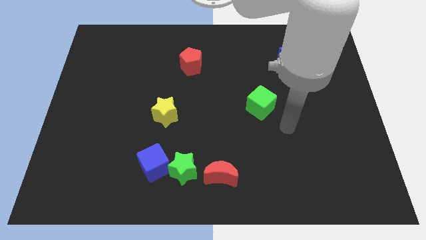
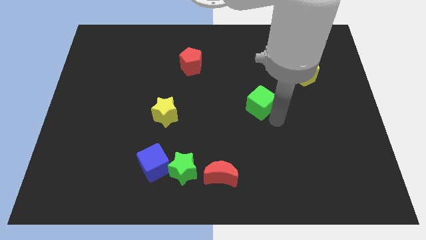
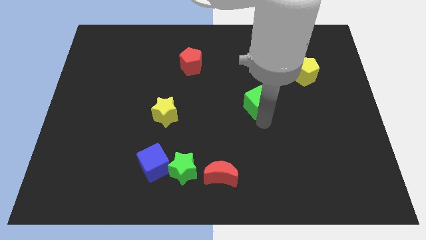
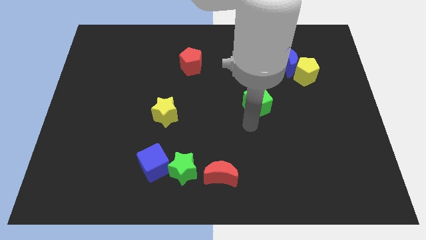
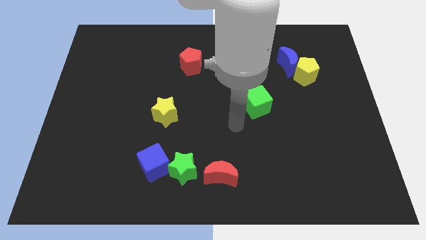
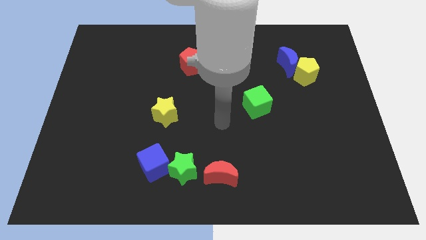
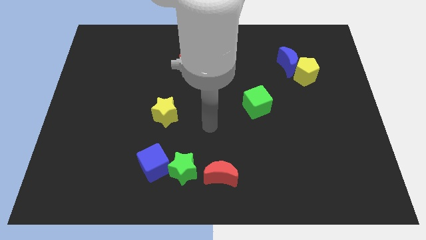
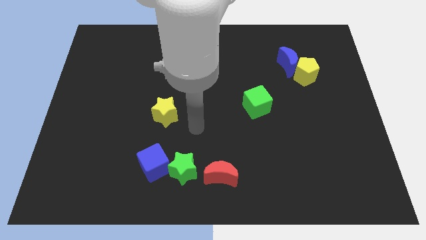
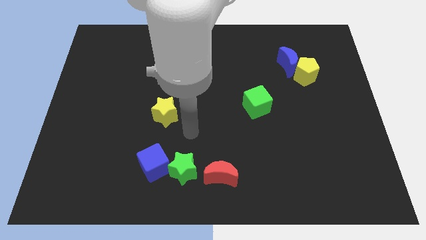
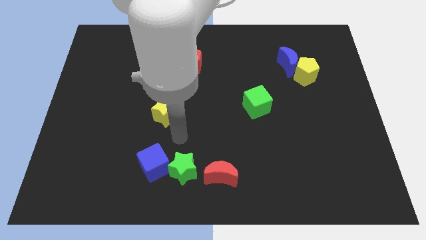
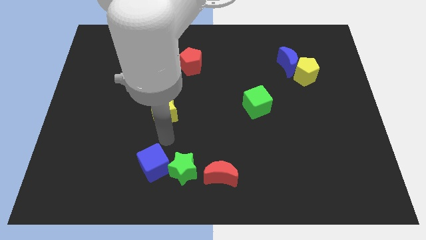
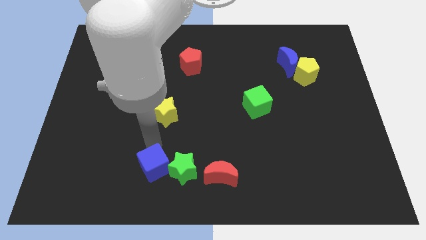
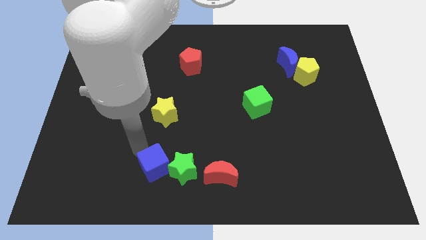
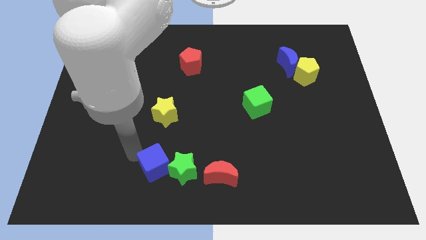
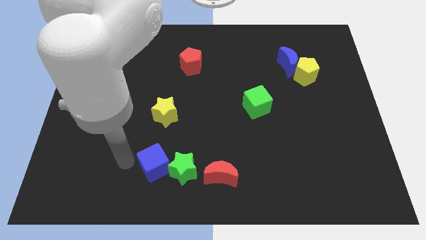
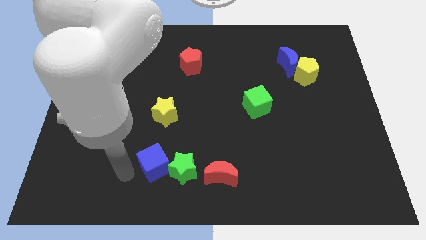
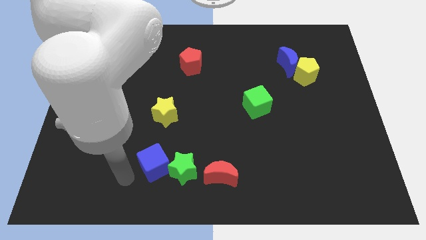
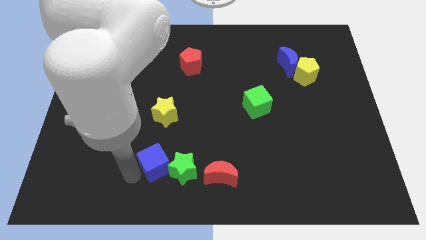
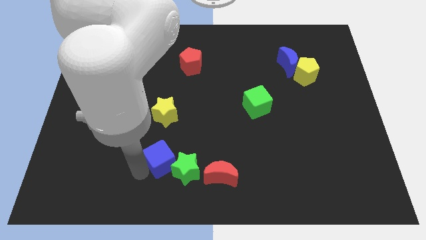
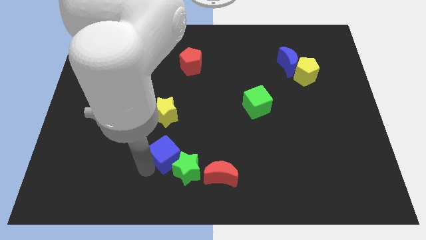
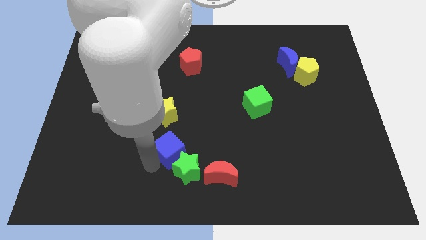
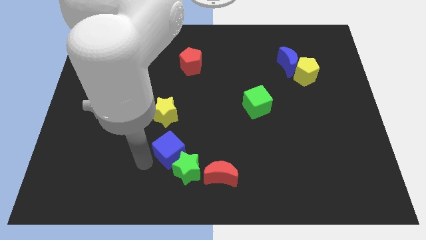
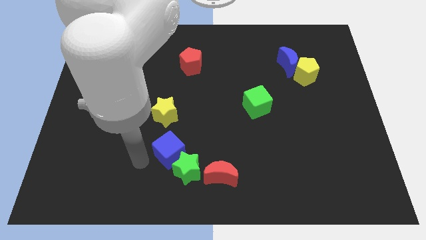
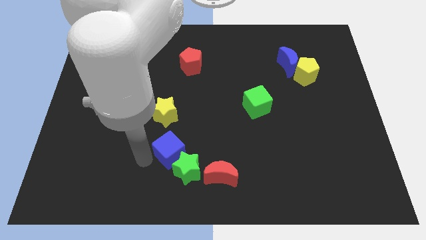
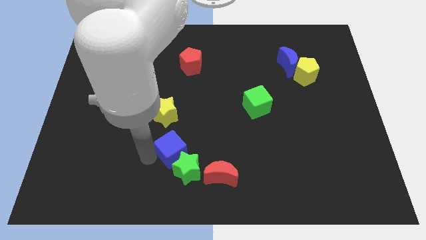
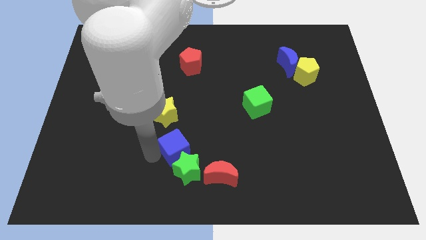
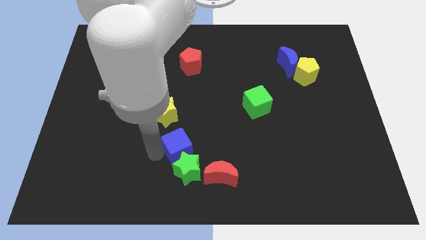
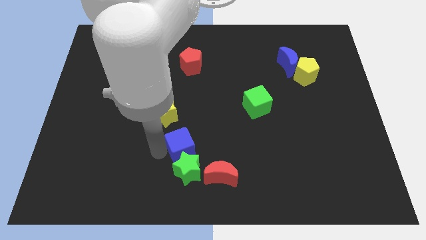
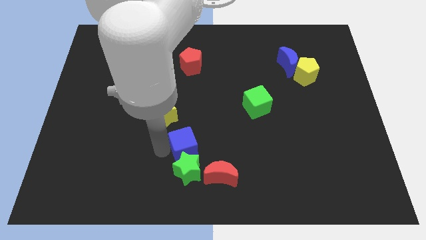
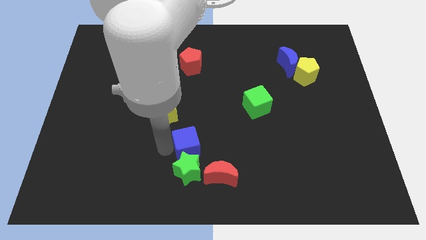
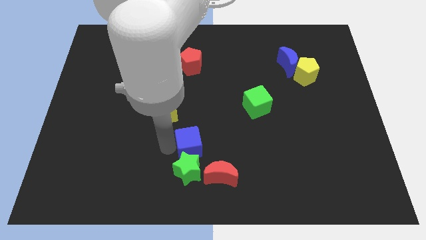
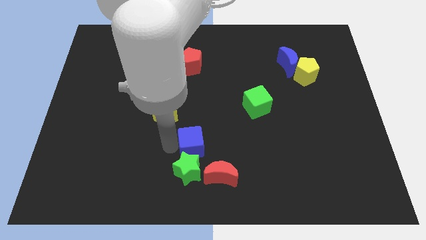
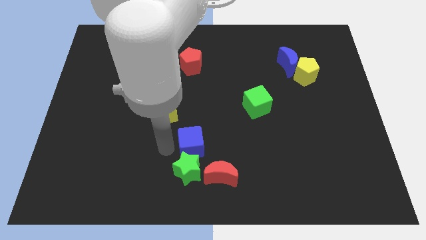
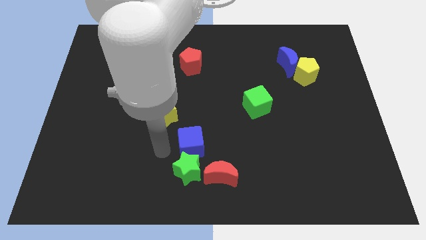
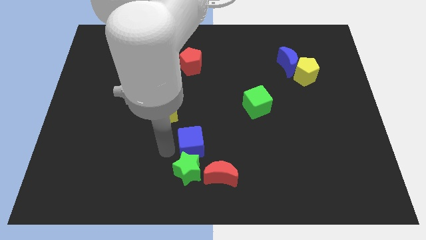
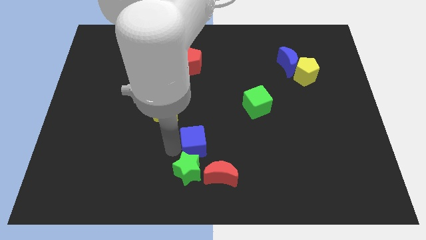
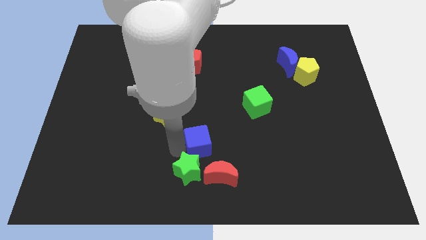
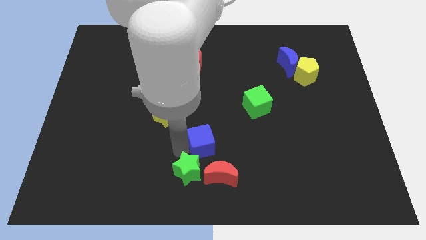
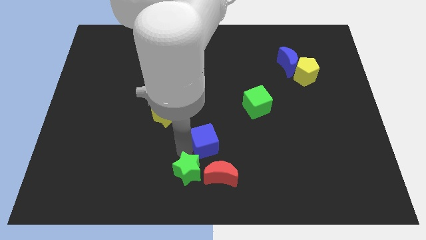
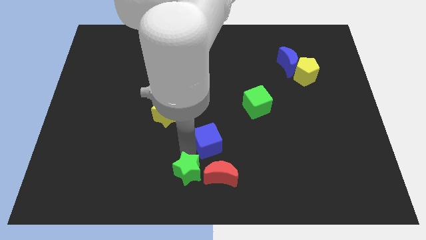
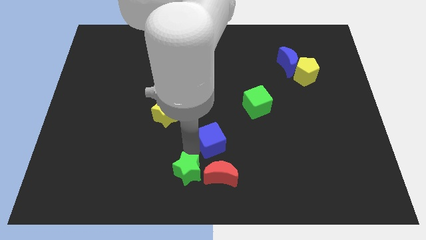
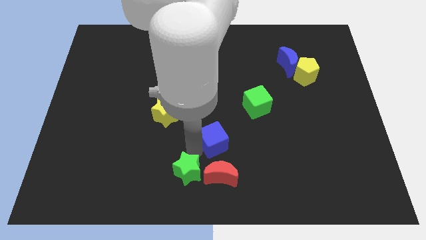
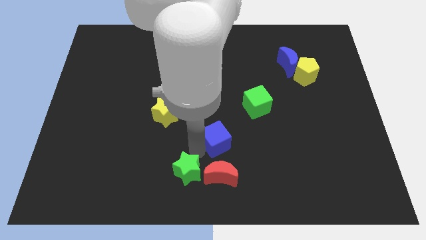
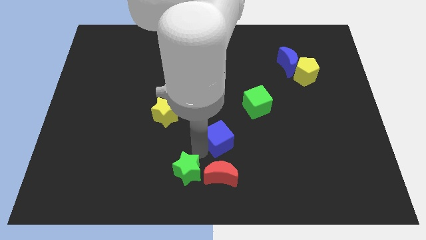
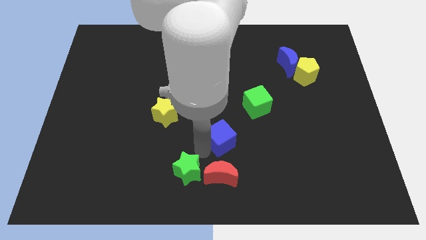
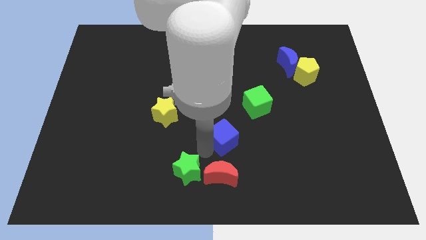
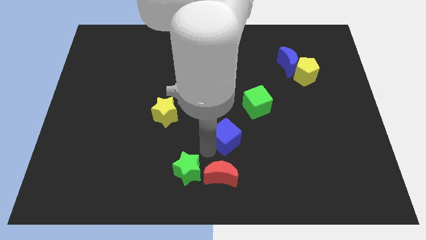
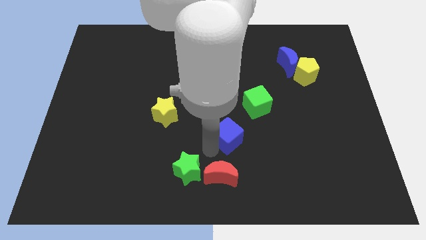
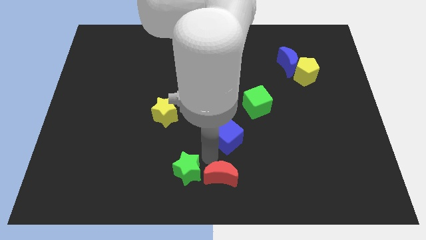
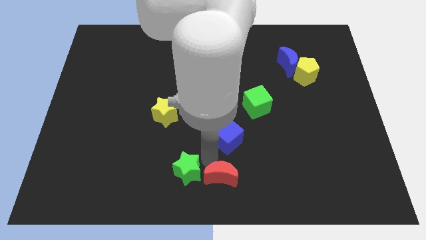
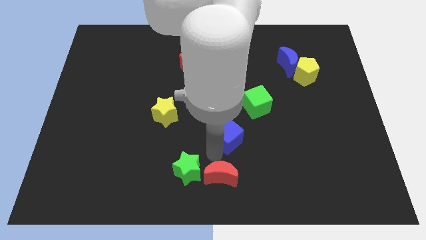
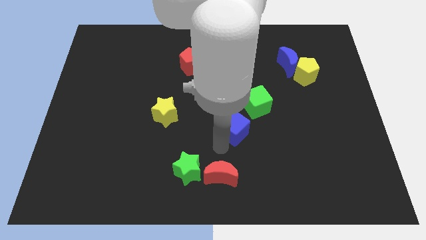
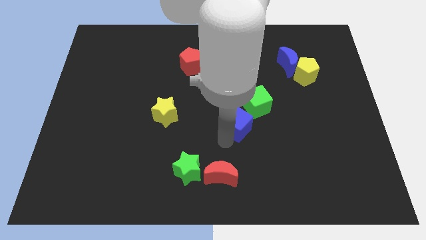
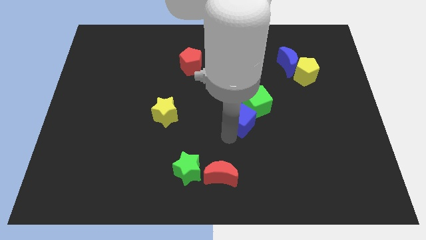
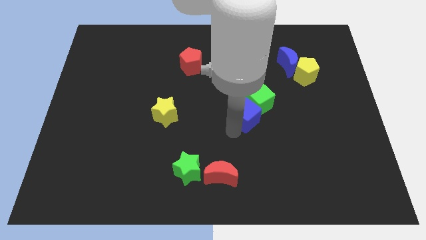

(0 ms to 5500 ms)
put the blue cube next to the green cube

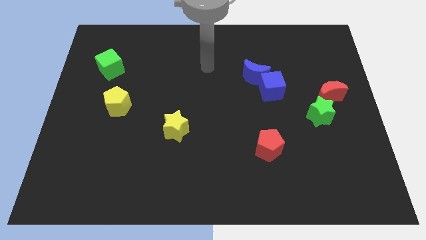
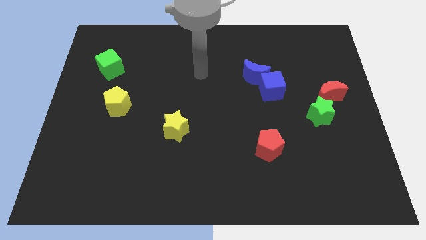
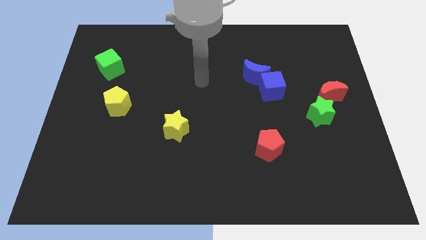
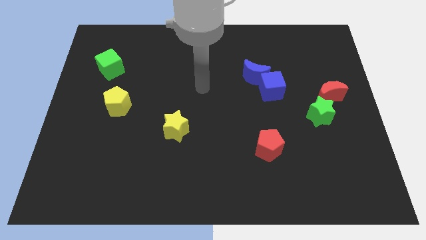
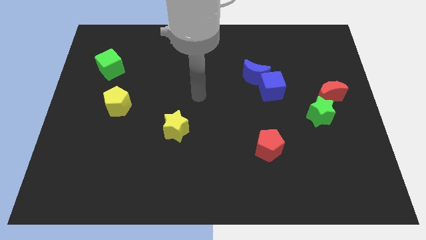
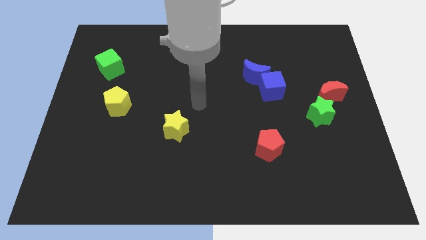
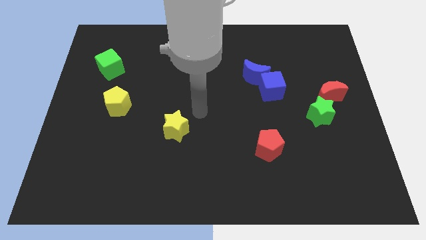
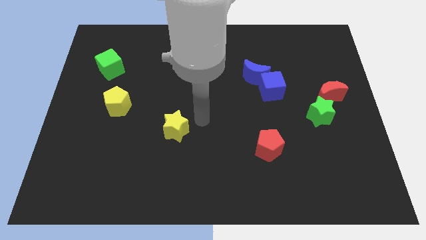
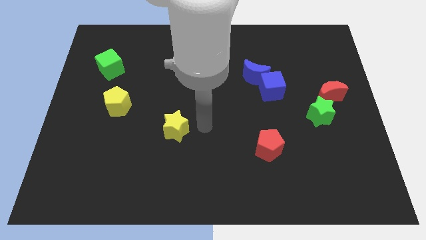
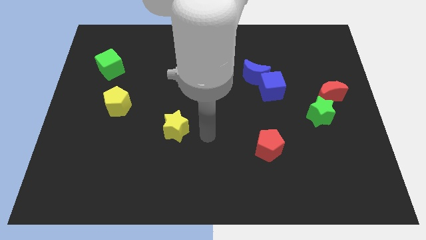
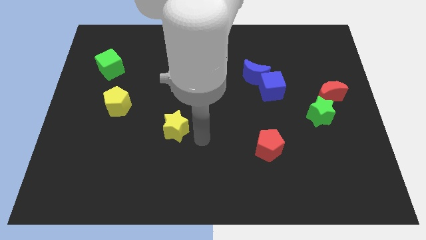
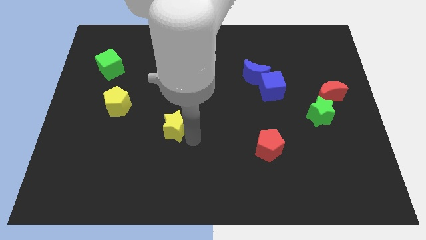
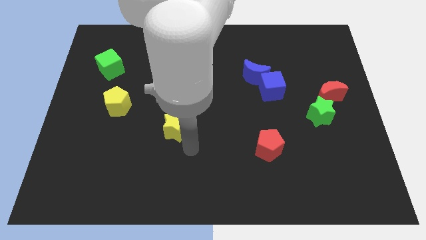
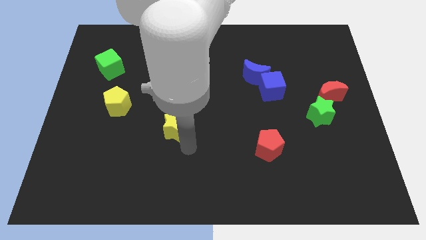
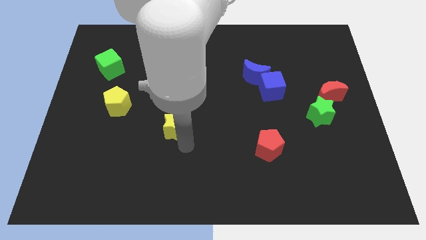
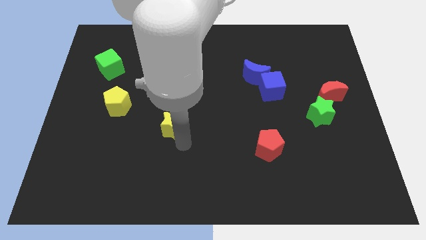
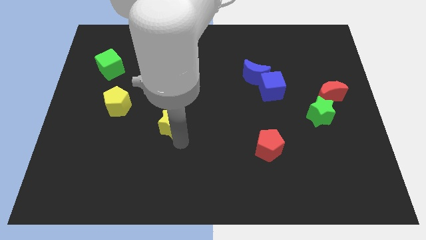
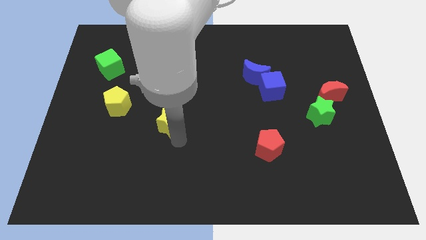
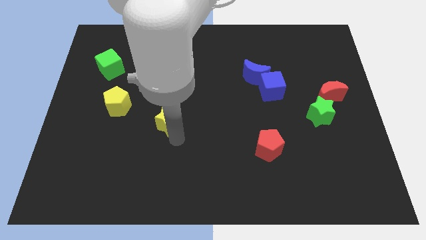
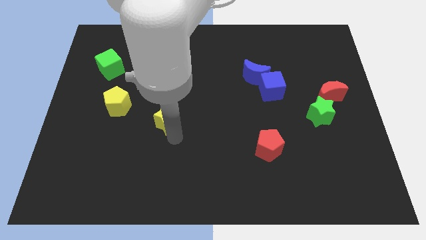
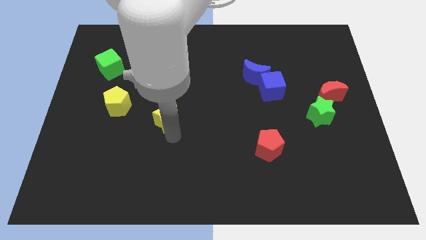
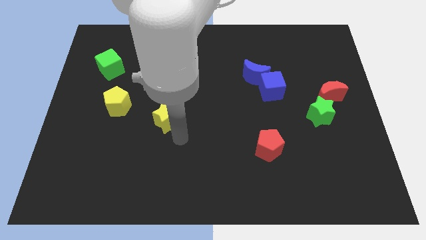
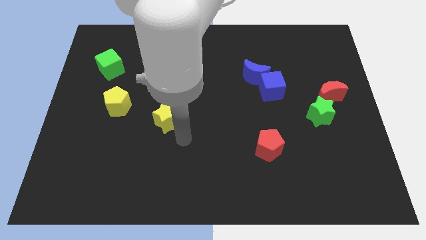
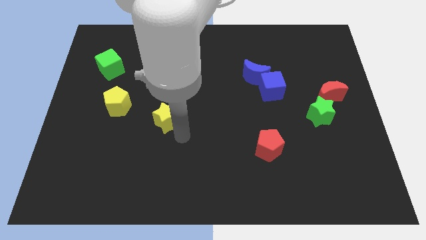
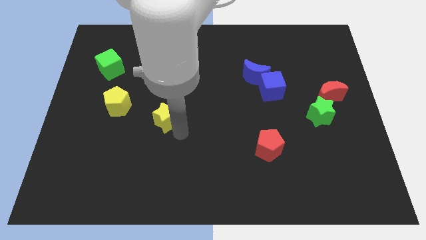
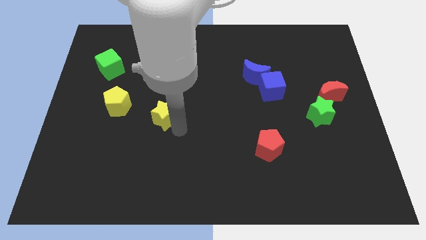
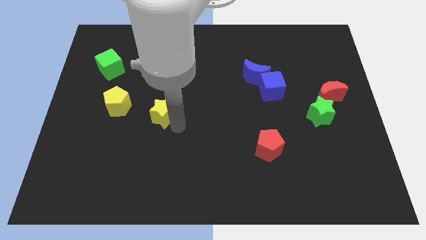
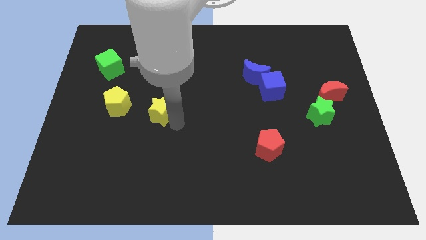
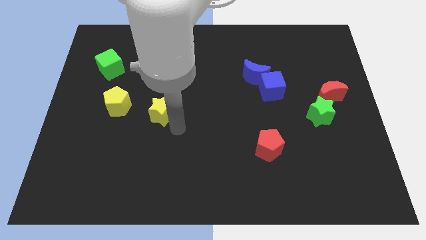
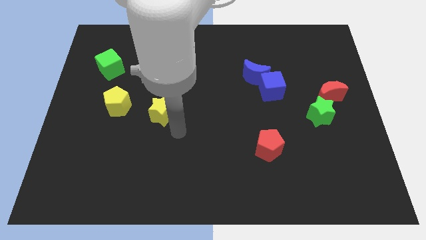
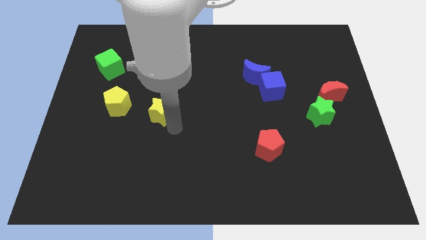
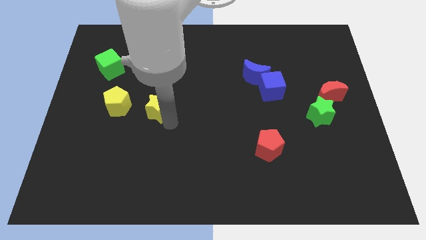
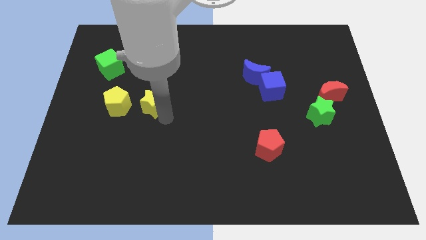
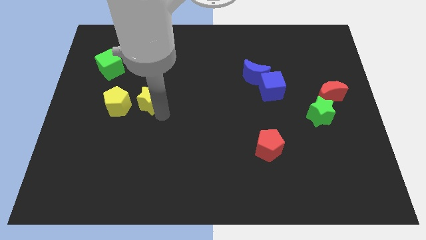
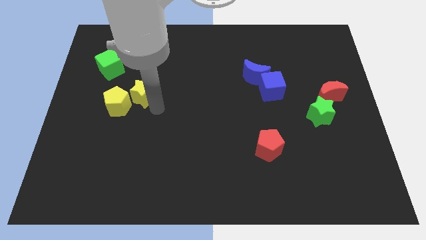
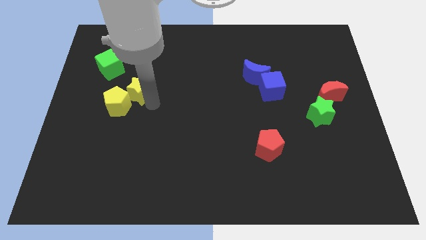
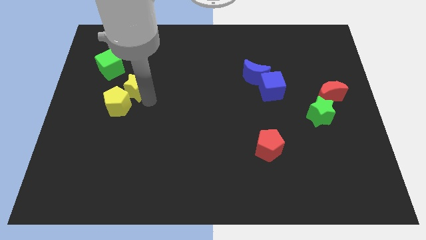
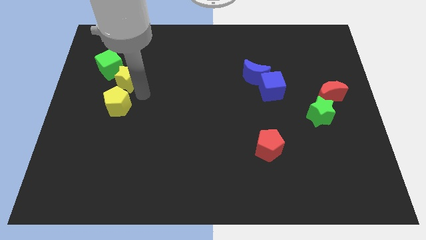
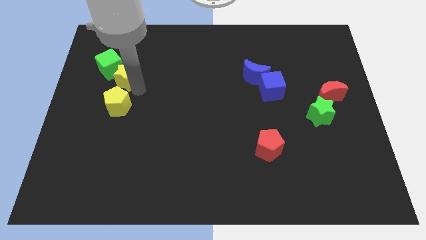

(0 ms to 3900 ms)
move the yellow star to the green cube
